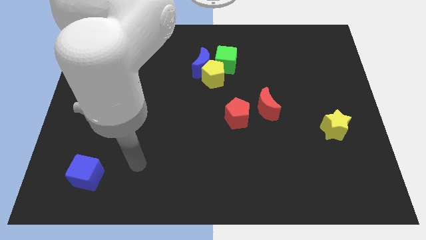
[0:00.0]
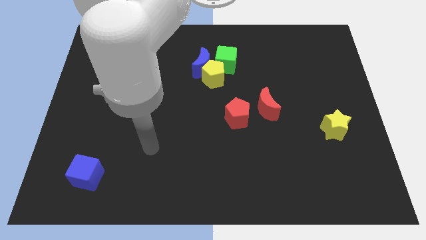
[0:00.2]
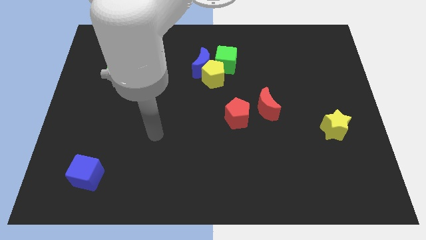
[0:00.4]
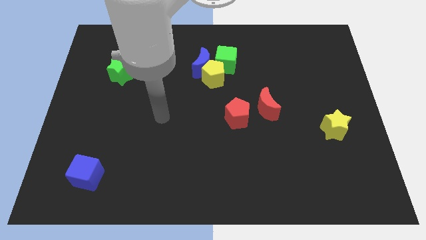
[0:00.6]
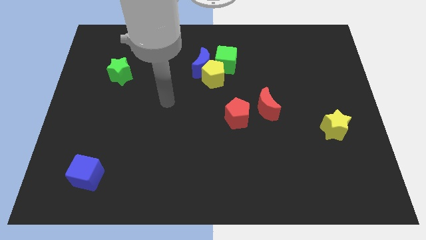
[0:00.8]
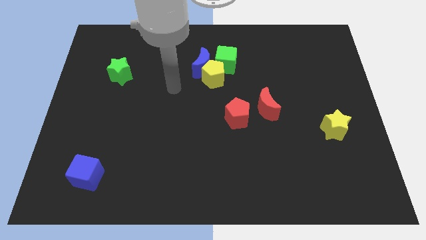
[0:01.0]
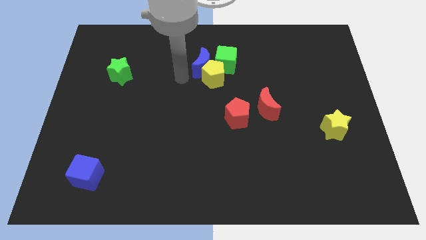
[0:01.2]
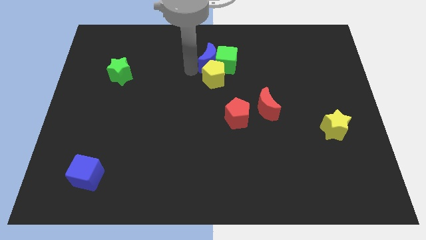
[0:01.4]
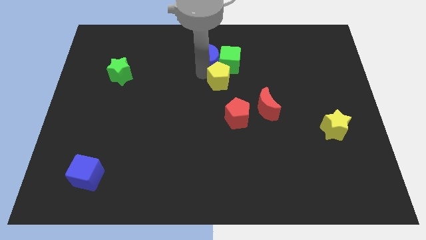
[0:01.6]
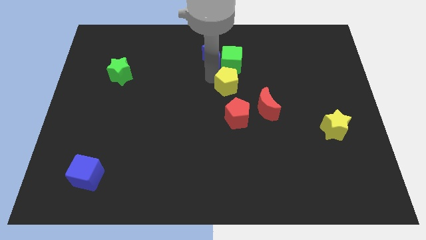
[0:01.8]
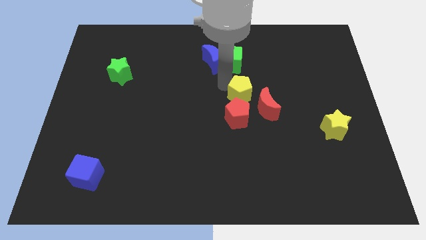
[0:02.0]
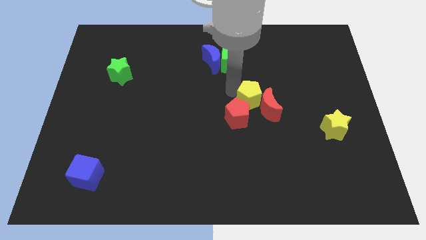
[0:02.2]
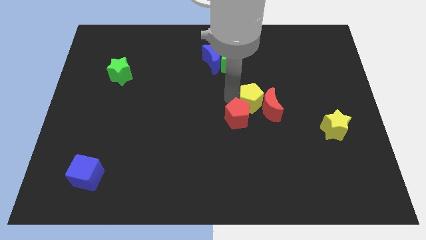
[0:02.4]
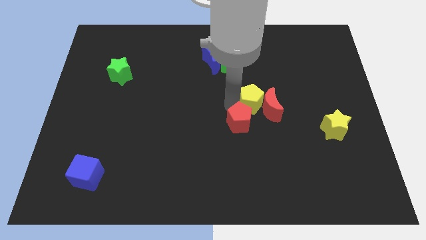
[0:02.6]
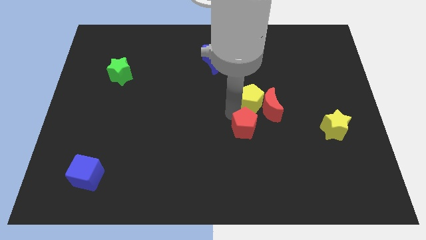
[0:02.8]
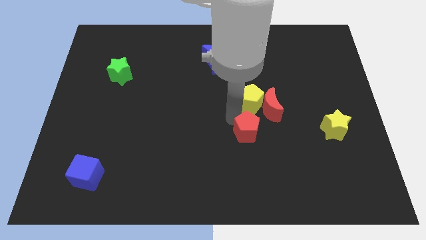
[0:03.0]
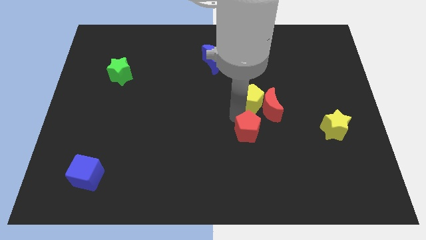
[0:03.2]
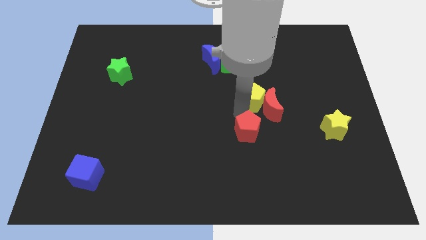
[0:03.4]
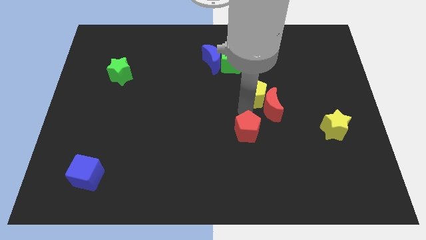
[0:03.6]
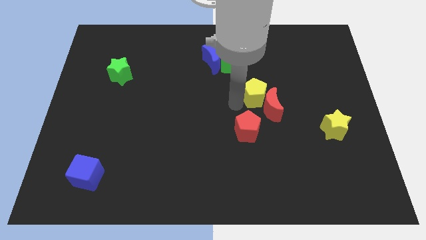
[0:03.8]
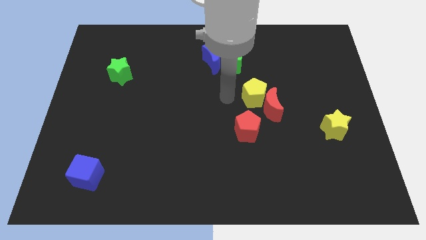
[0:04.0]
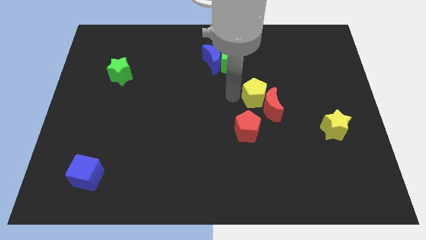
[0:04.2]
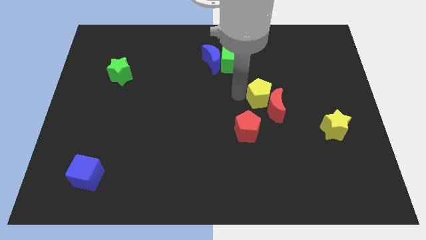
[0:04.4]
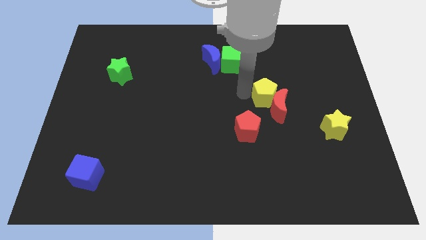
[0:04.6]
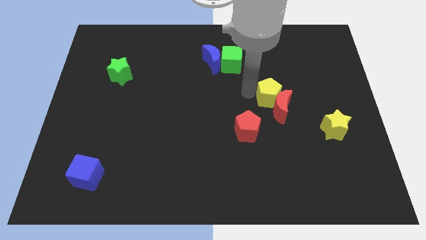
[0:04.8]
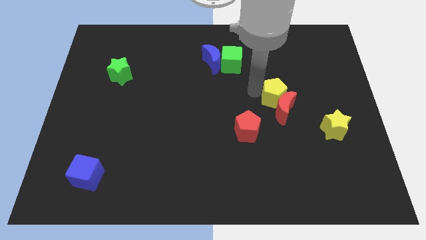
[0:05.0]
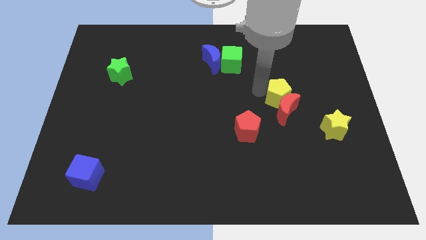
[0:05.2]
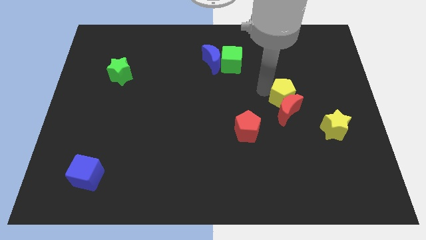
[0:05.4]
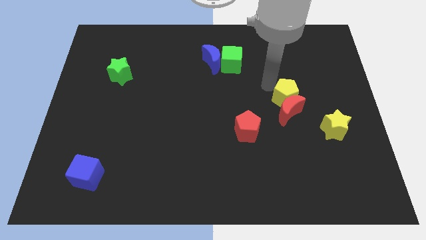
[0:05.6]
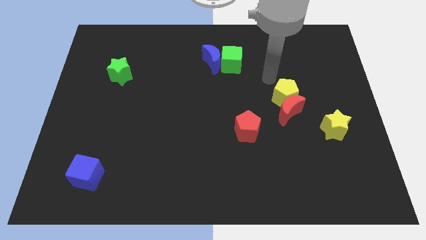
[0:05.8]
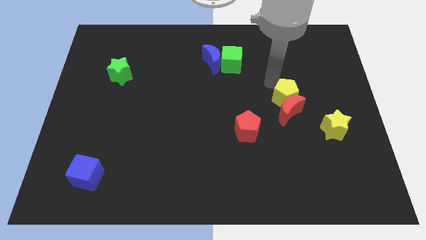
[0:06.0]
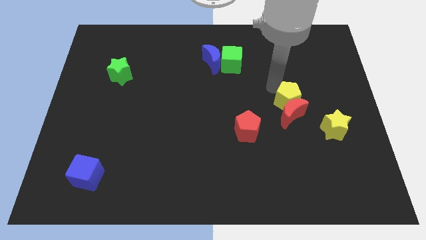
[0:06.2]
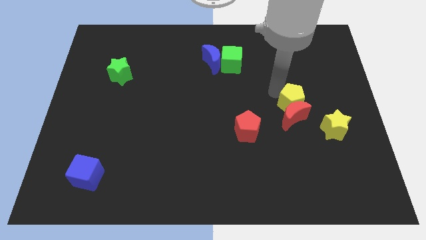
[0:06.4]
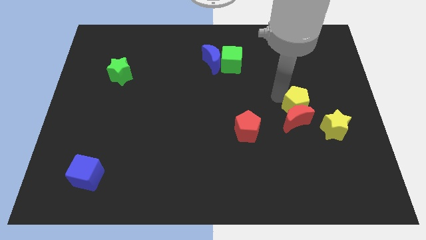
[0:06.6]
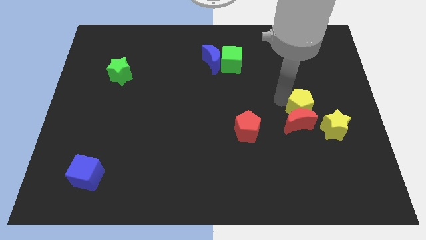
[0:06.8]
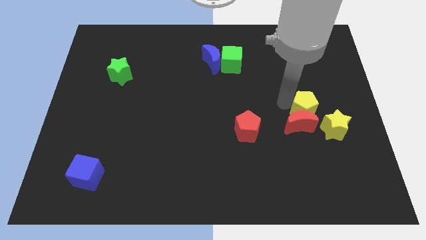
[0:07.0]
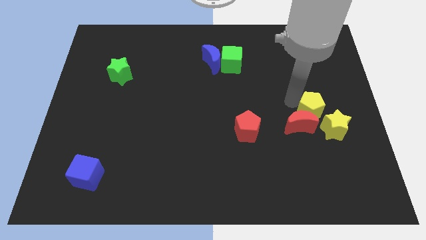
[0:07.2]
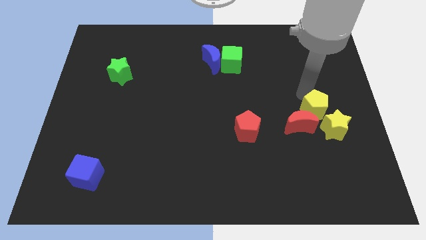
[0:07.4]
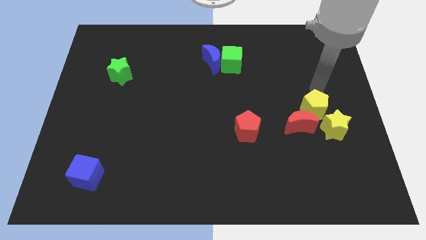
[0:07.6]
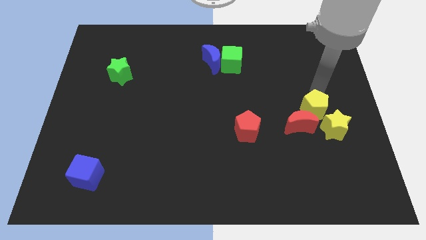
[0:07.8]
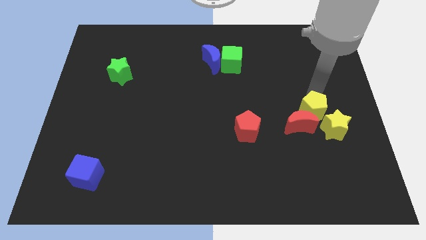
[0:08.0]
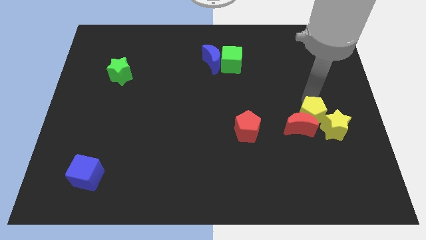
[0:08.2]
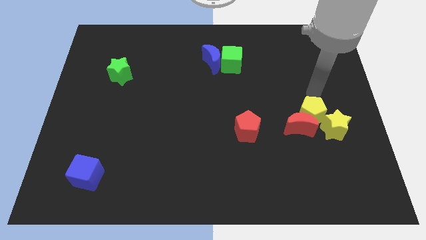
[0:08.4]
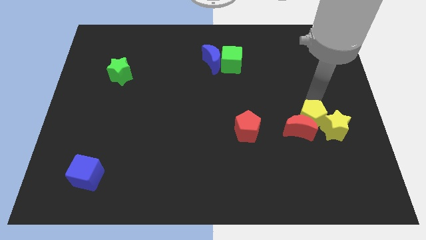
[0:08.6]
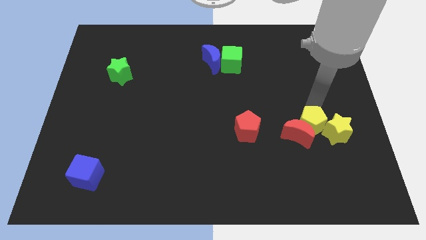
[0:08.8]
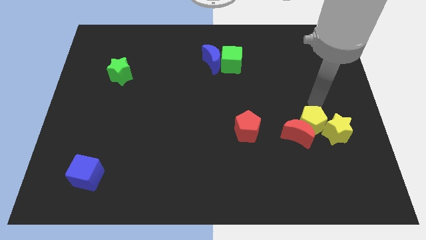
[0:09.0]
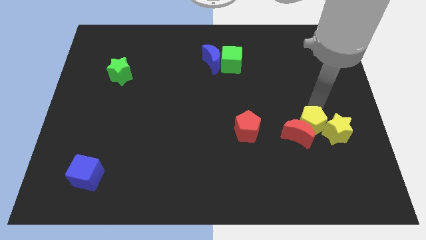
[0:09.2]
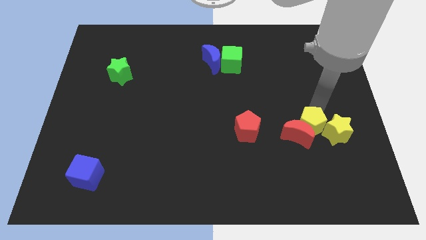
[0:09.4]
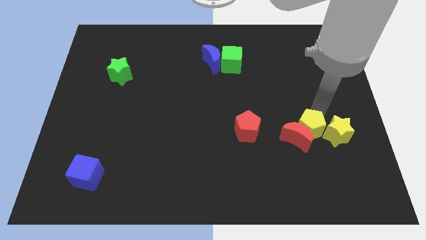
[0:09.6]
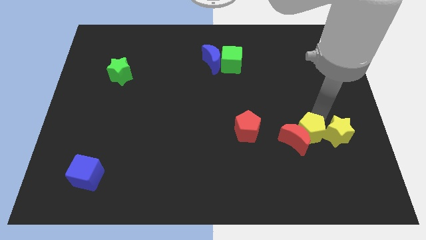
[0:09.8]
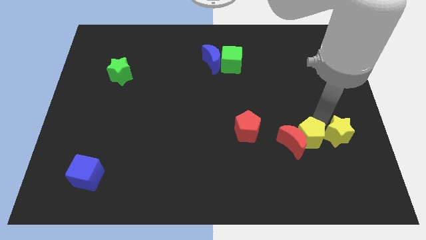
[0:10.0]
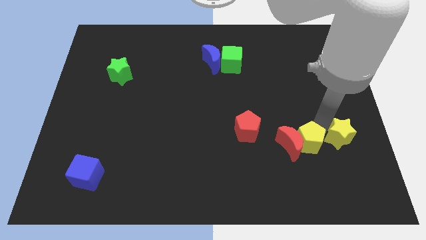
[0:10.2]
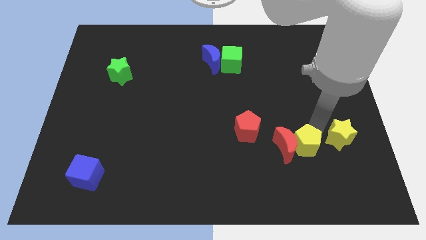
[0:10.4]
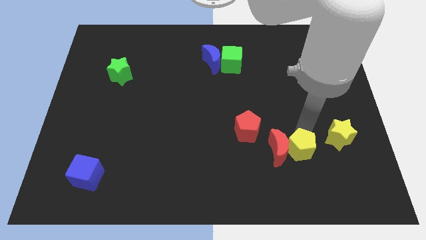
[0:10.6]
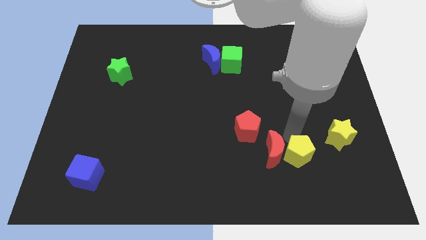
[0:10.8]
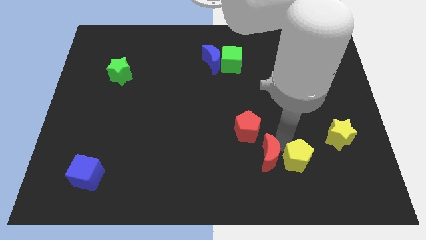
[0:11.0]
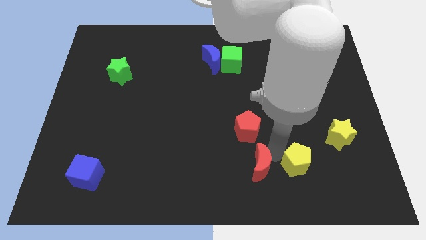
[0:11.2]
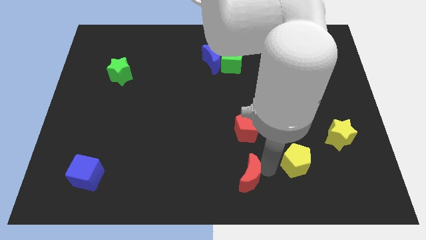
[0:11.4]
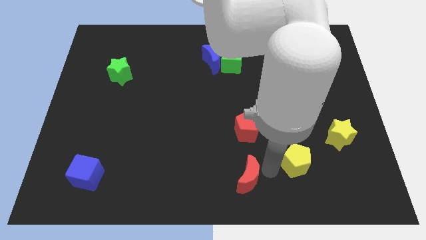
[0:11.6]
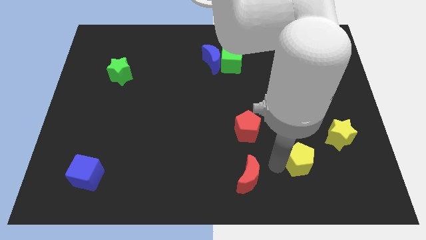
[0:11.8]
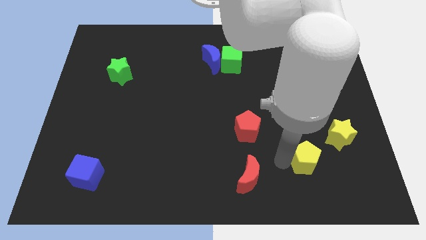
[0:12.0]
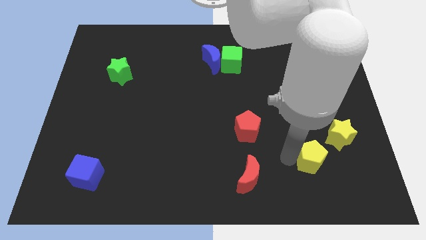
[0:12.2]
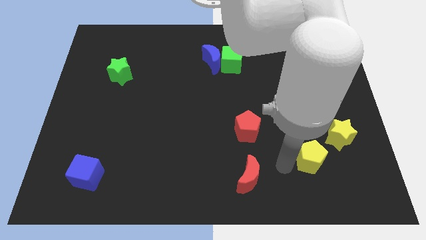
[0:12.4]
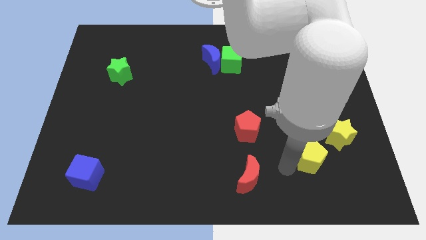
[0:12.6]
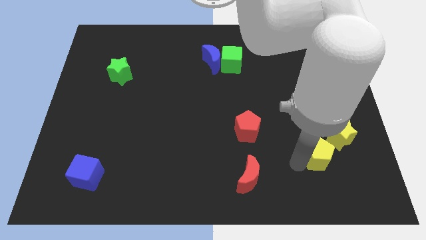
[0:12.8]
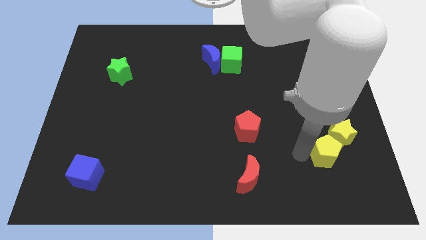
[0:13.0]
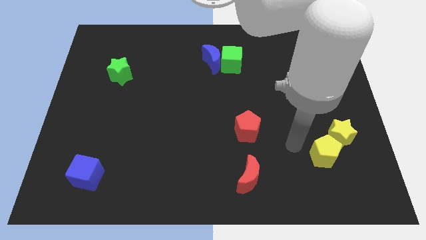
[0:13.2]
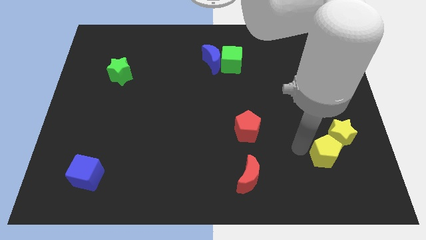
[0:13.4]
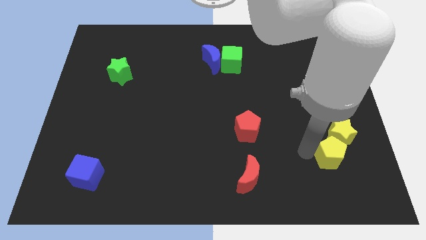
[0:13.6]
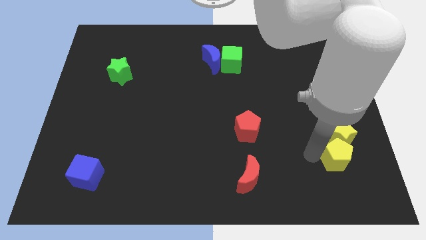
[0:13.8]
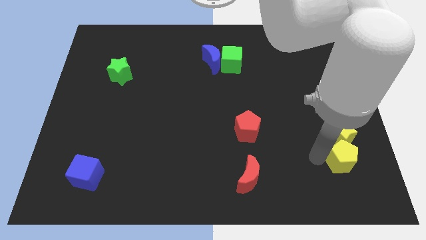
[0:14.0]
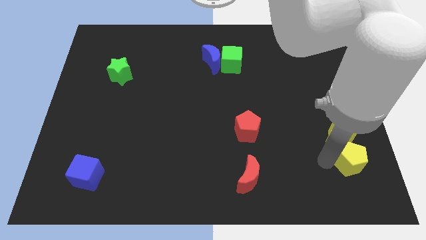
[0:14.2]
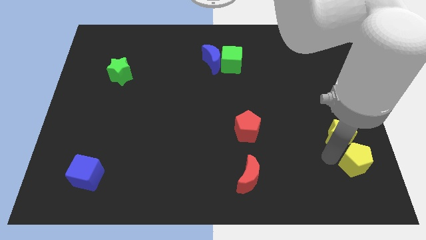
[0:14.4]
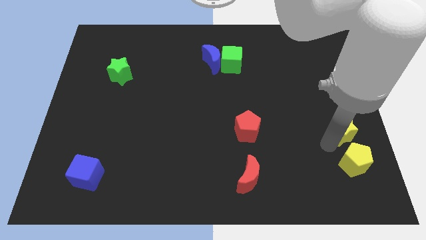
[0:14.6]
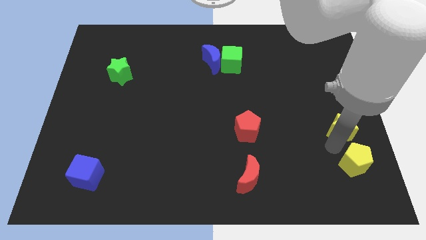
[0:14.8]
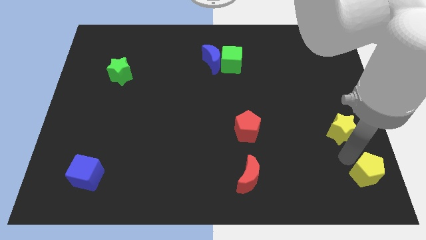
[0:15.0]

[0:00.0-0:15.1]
put the yellow pentagon to the bottom right
